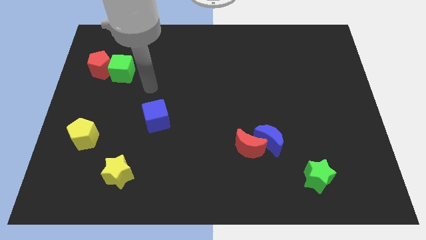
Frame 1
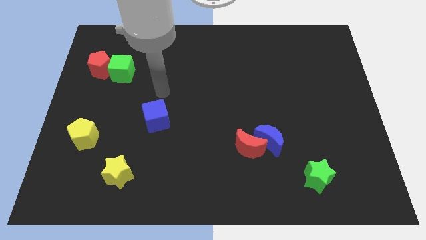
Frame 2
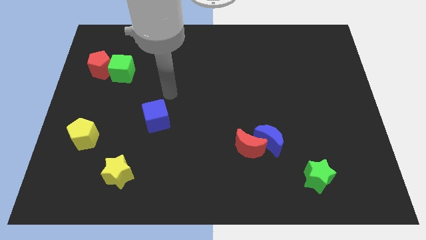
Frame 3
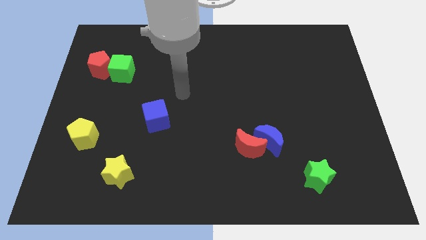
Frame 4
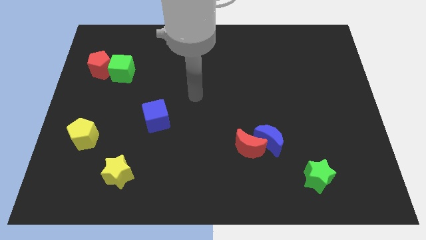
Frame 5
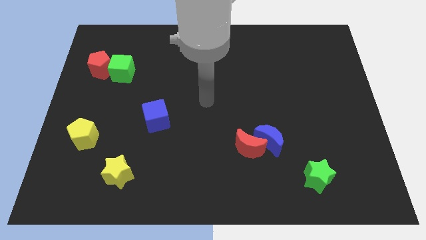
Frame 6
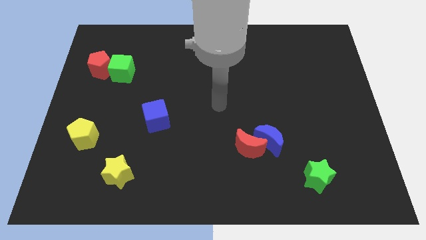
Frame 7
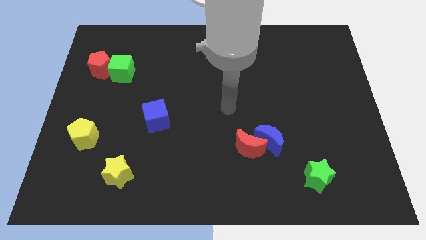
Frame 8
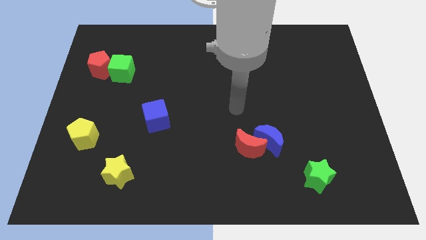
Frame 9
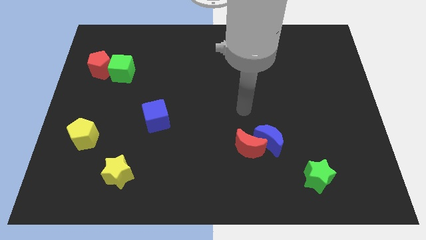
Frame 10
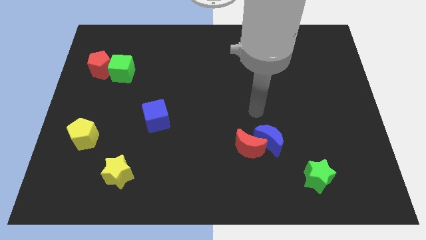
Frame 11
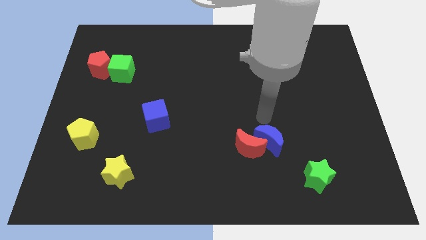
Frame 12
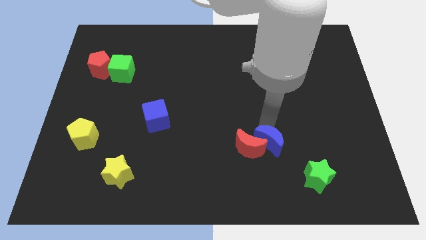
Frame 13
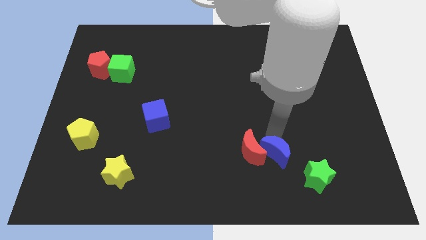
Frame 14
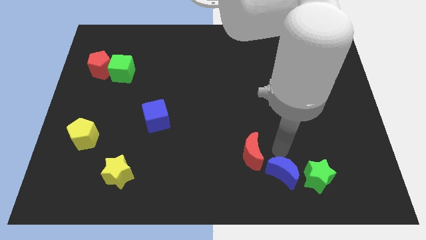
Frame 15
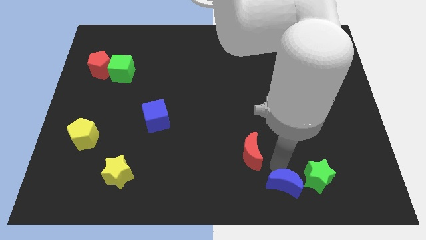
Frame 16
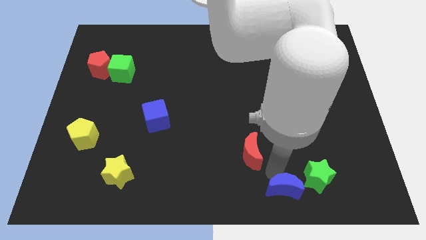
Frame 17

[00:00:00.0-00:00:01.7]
separate the red moon from the blue moon

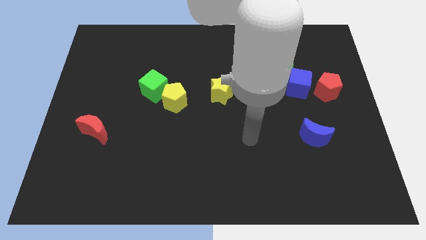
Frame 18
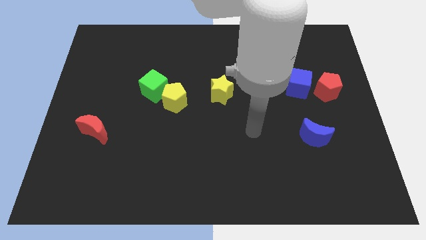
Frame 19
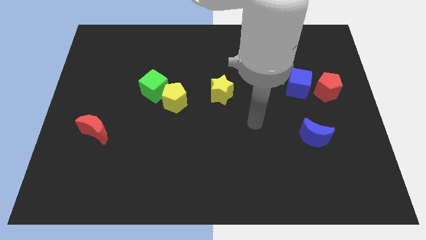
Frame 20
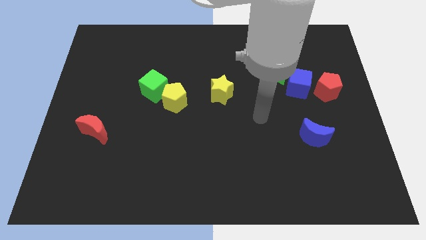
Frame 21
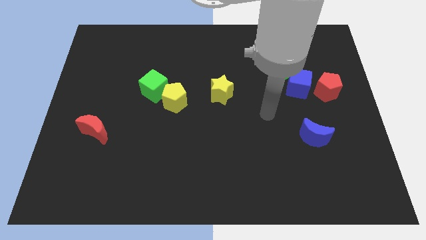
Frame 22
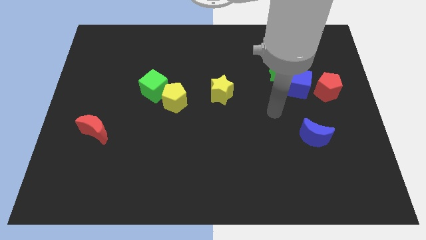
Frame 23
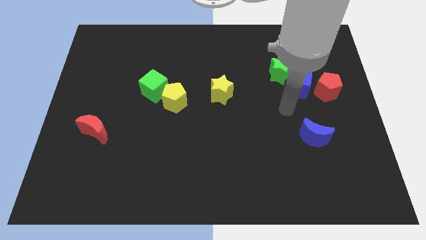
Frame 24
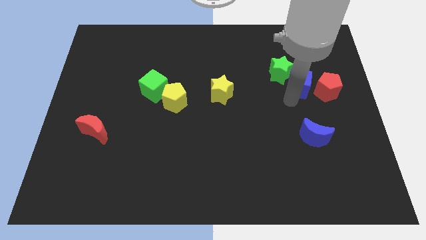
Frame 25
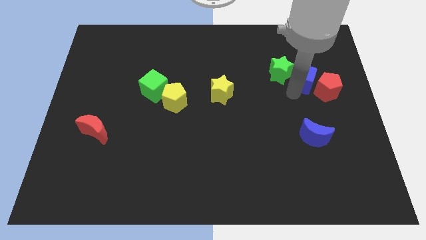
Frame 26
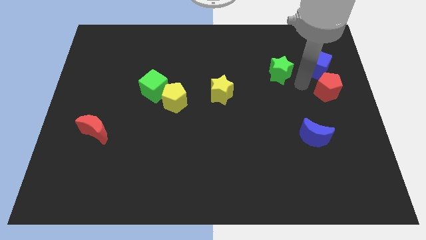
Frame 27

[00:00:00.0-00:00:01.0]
move the green star away from the blue cube

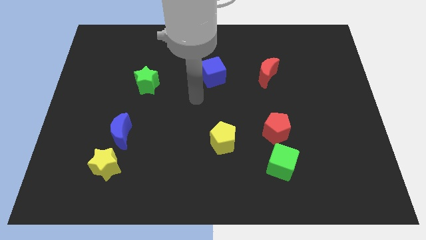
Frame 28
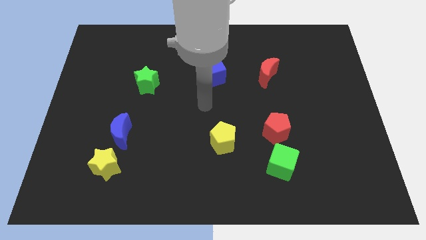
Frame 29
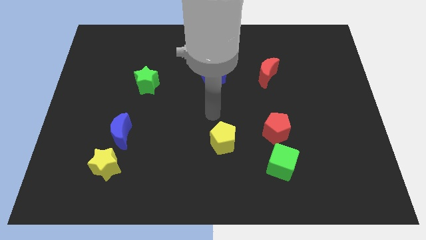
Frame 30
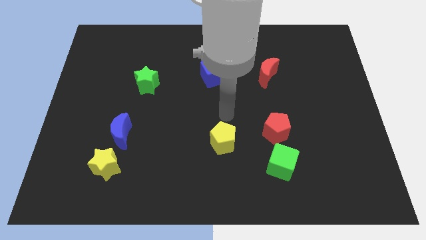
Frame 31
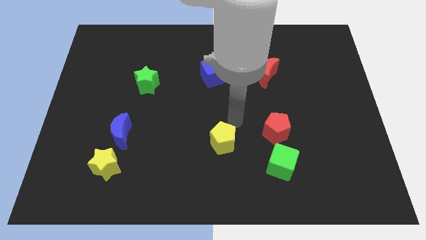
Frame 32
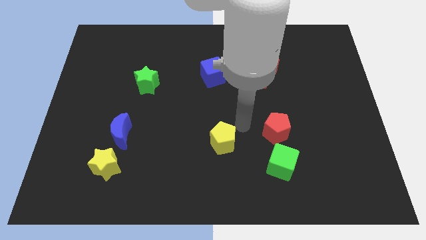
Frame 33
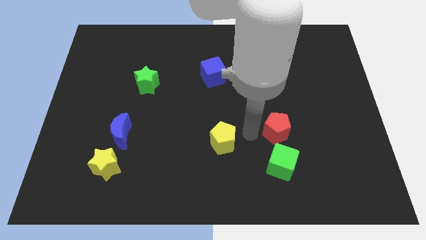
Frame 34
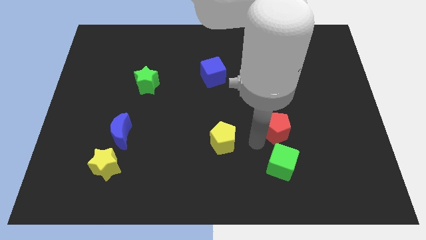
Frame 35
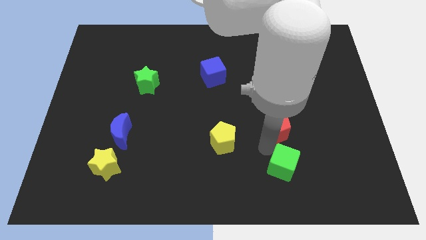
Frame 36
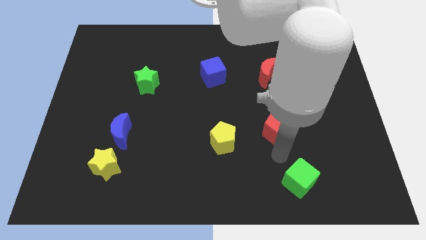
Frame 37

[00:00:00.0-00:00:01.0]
separate the red pentagon from the green cube

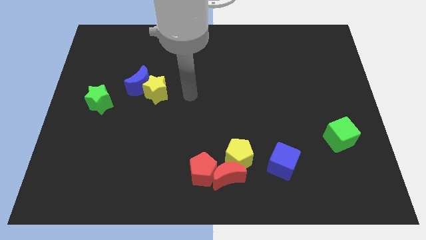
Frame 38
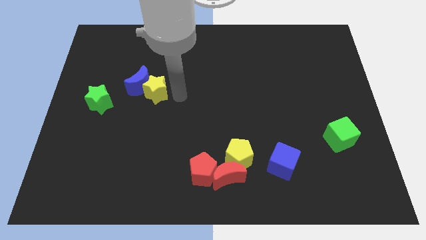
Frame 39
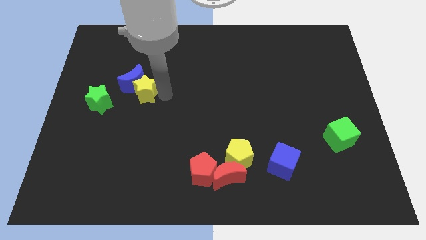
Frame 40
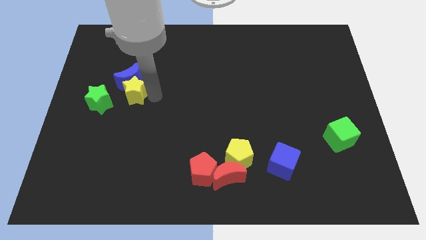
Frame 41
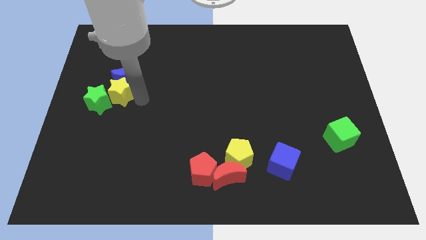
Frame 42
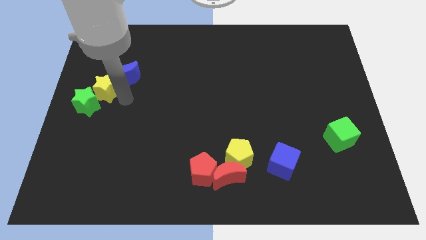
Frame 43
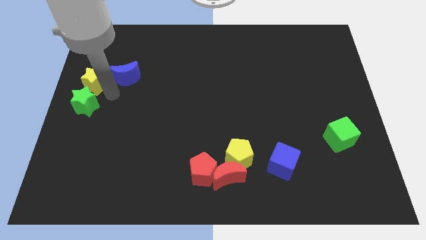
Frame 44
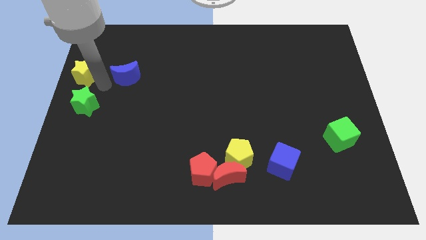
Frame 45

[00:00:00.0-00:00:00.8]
move the blue moon away from the yellow star

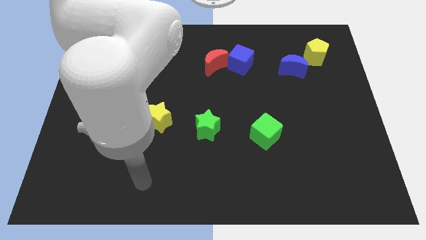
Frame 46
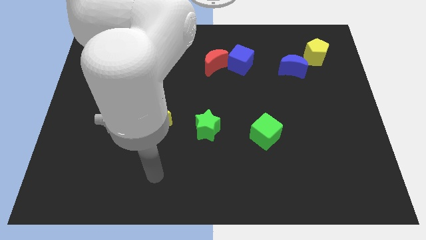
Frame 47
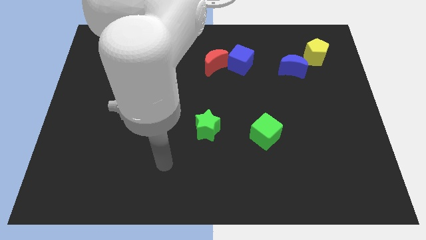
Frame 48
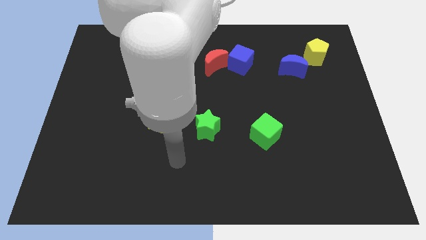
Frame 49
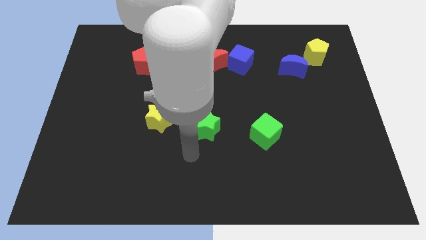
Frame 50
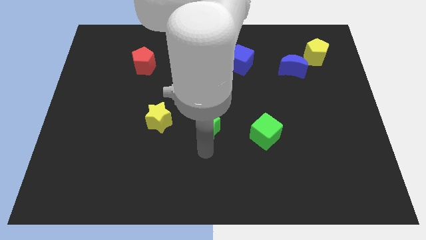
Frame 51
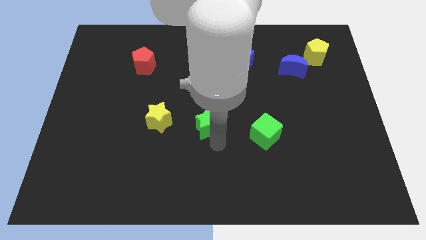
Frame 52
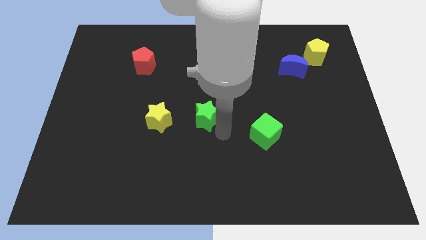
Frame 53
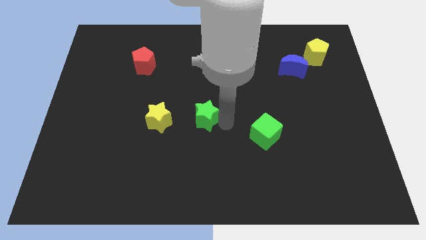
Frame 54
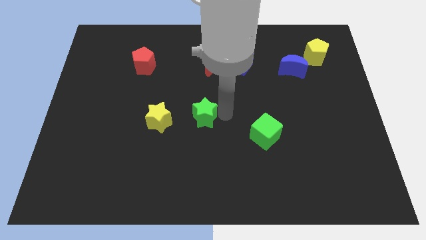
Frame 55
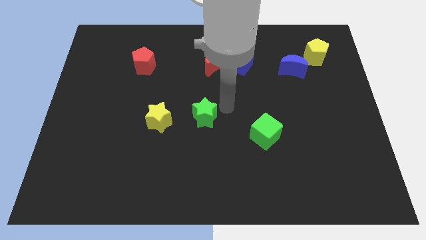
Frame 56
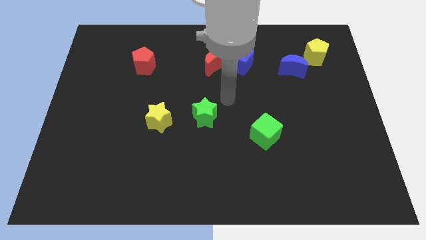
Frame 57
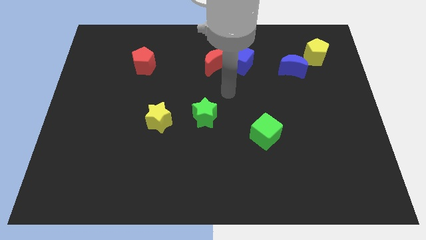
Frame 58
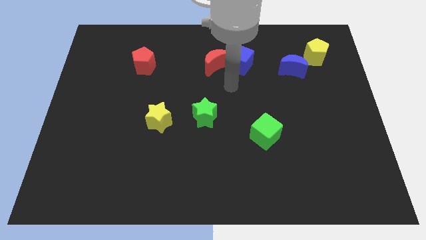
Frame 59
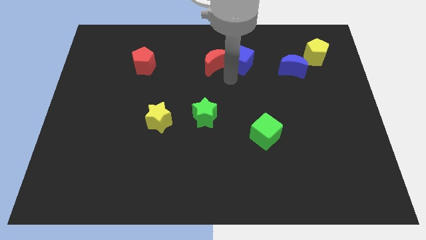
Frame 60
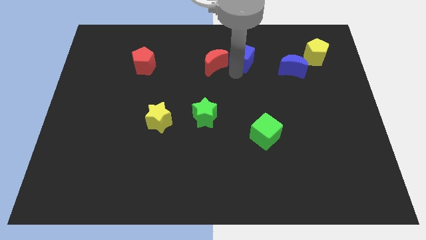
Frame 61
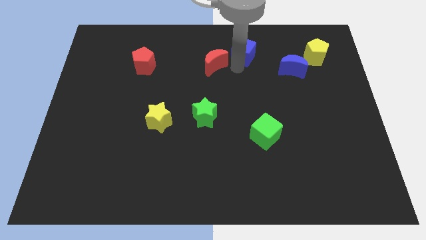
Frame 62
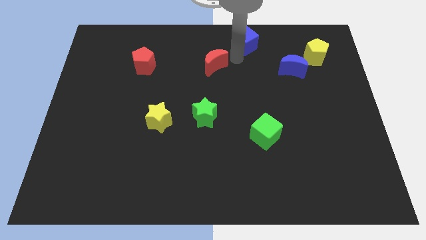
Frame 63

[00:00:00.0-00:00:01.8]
move the red moon away from the blue cube

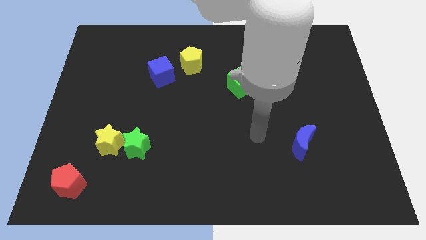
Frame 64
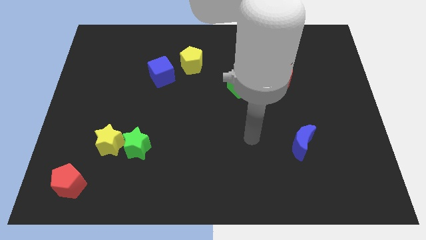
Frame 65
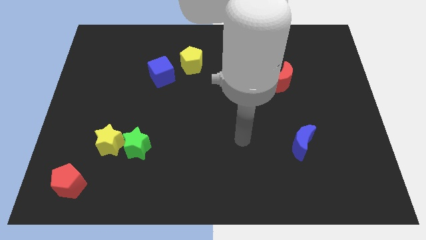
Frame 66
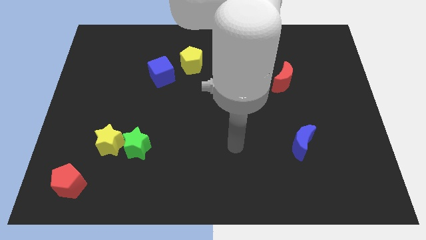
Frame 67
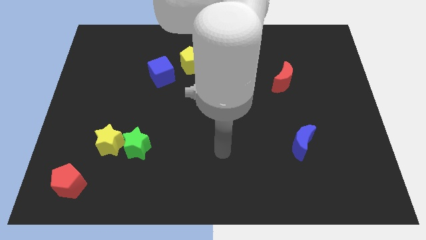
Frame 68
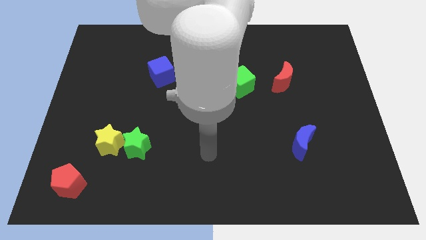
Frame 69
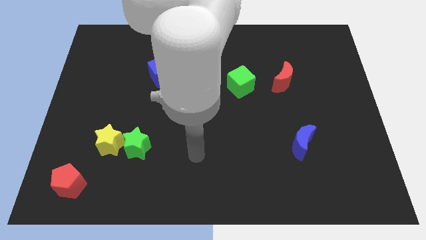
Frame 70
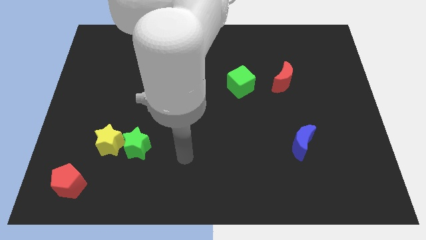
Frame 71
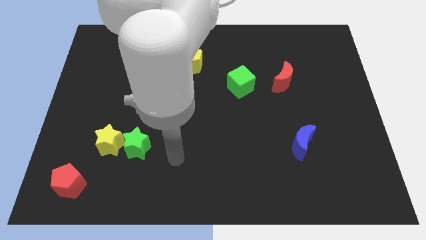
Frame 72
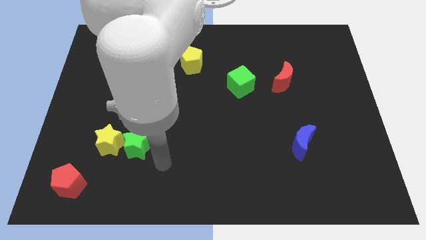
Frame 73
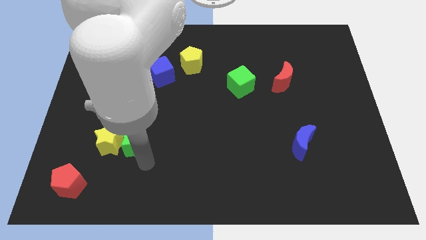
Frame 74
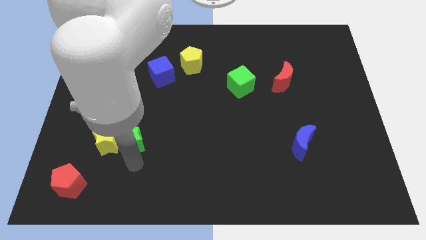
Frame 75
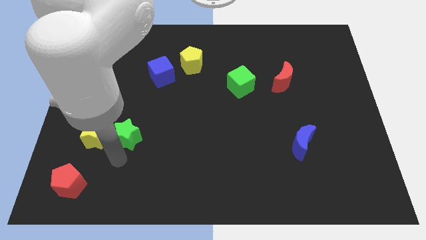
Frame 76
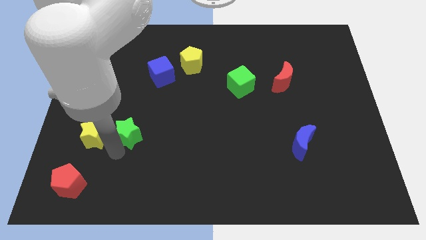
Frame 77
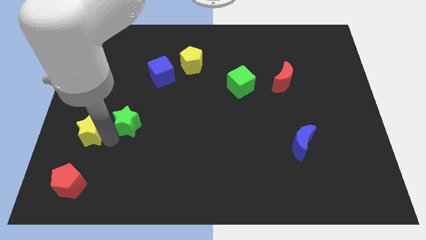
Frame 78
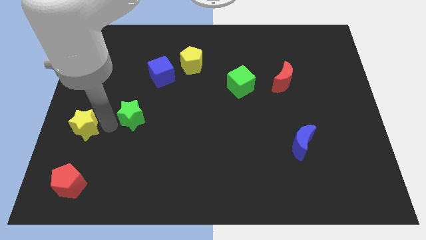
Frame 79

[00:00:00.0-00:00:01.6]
pull the green star apart from the yellow star

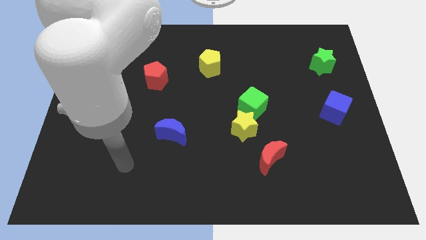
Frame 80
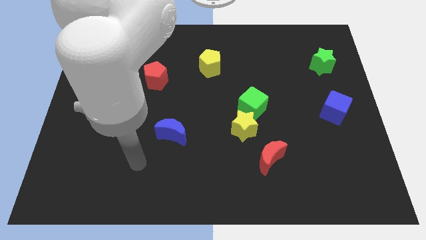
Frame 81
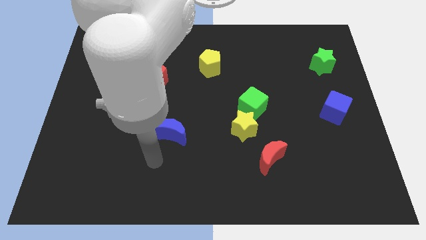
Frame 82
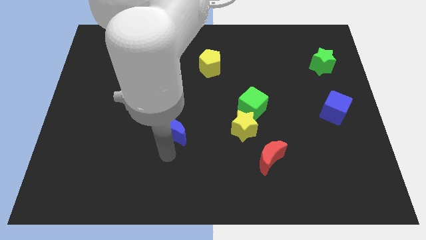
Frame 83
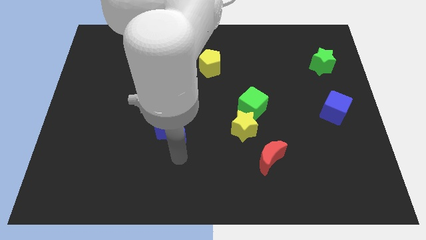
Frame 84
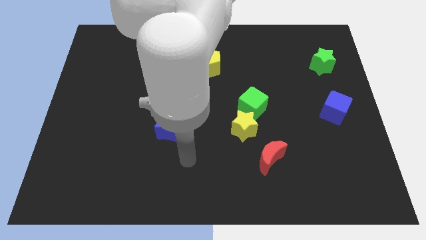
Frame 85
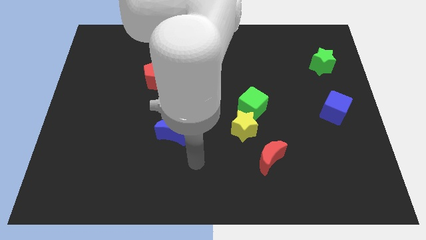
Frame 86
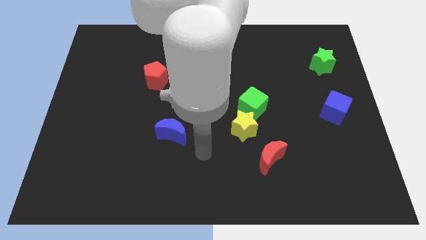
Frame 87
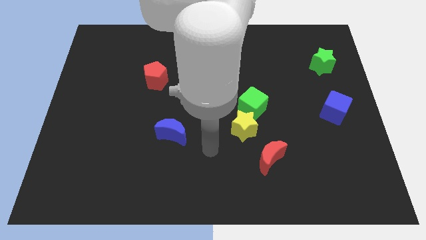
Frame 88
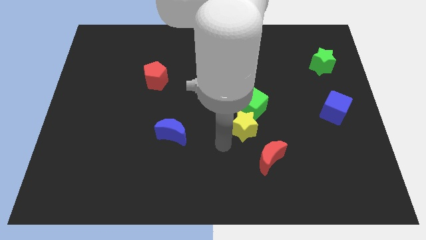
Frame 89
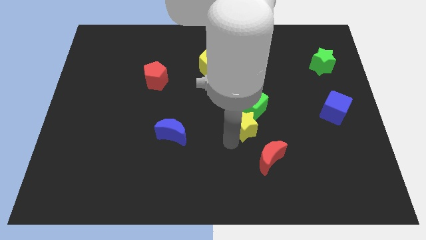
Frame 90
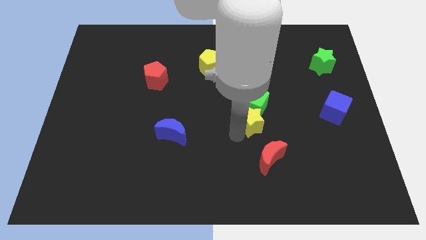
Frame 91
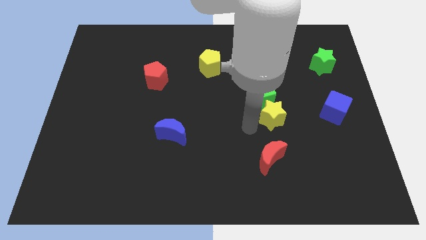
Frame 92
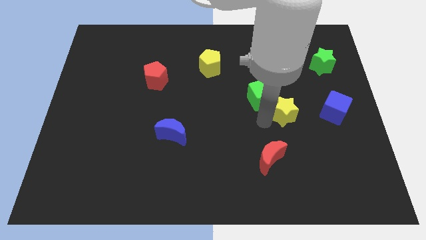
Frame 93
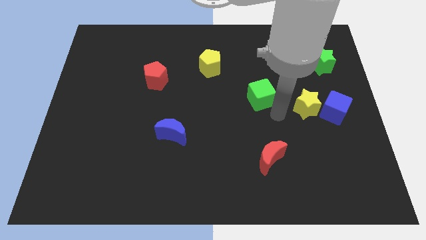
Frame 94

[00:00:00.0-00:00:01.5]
move the green cube away from the yellow star
